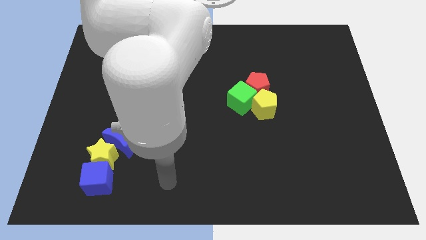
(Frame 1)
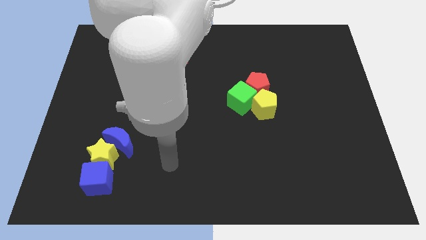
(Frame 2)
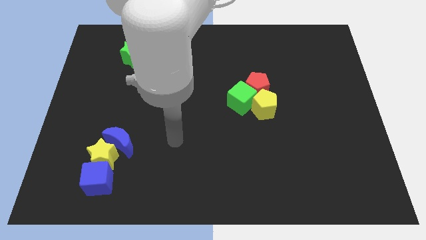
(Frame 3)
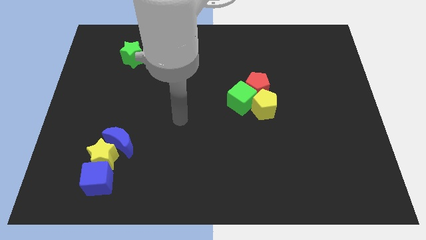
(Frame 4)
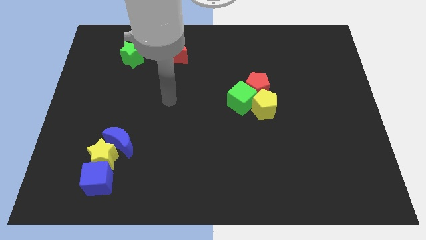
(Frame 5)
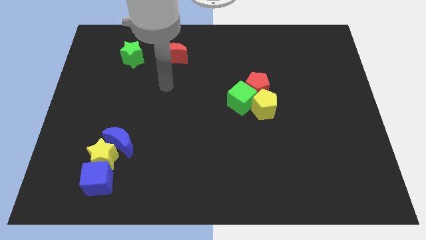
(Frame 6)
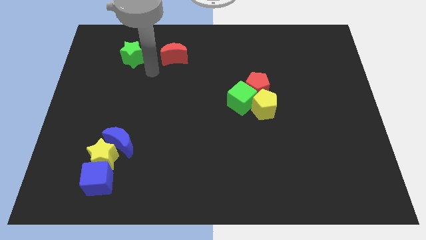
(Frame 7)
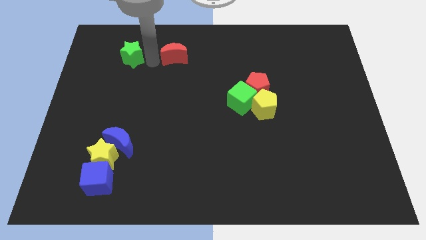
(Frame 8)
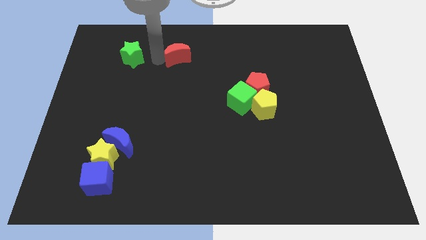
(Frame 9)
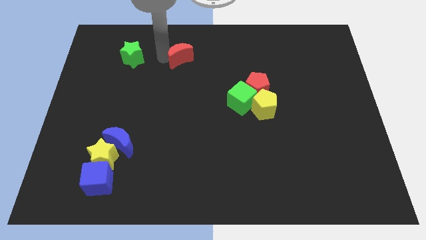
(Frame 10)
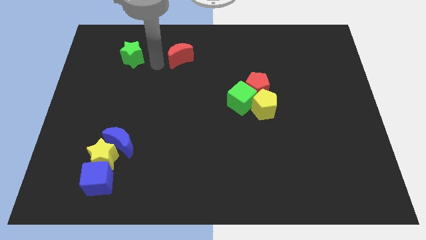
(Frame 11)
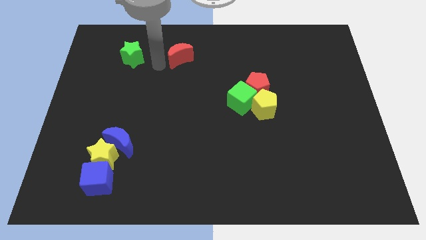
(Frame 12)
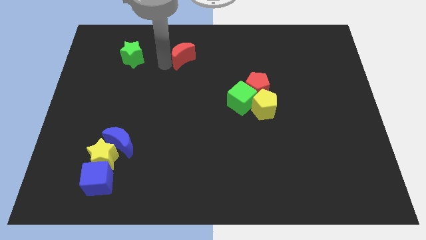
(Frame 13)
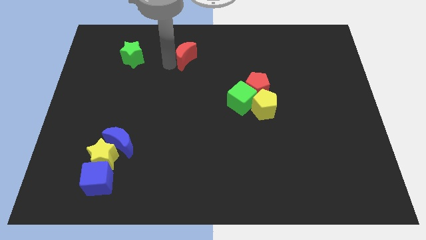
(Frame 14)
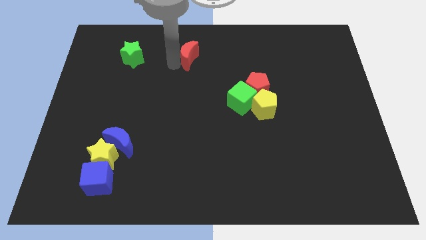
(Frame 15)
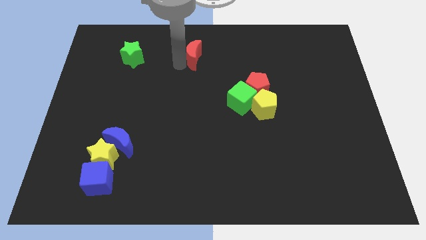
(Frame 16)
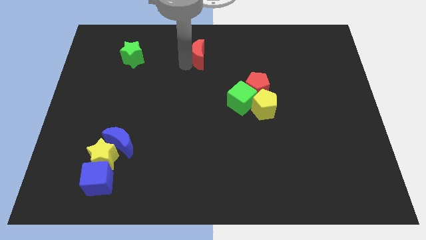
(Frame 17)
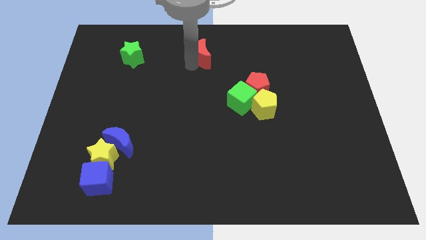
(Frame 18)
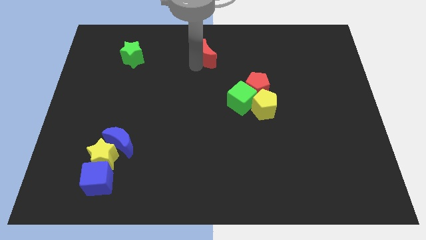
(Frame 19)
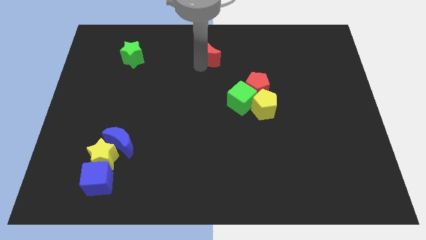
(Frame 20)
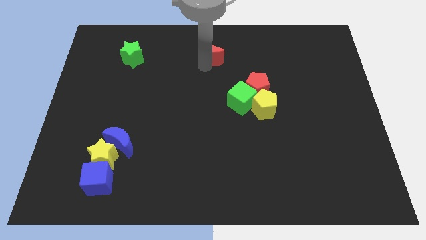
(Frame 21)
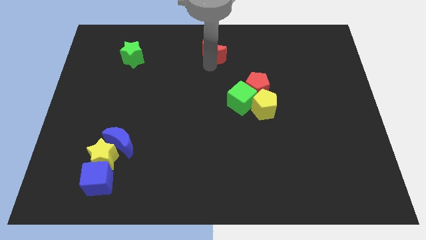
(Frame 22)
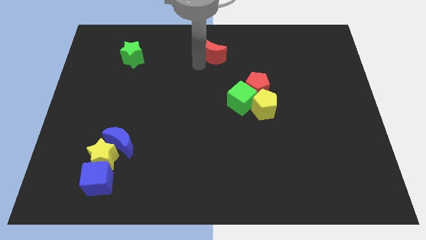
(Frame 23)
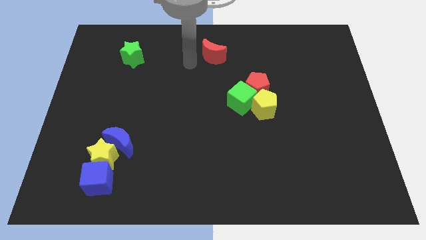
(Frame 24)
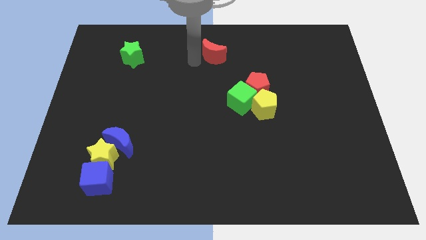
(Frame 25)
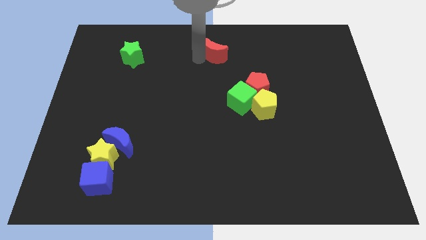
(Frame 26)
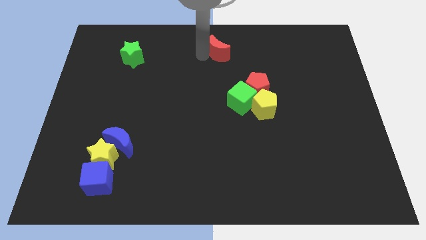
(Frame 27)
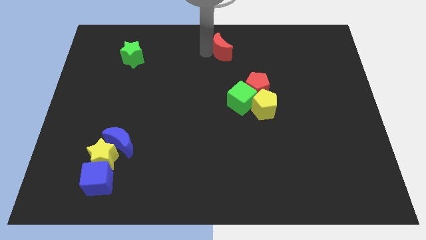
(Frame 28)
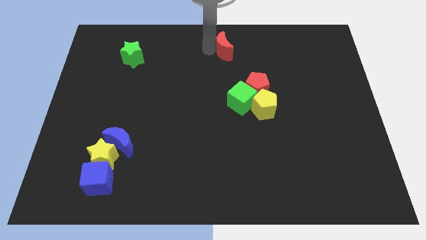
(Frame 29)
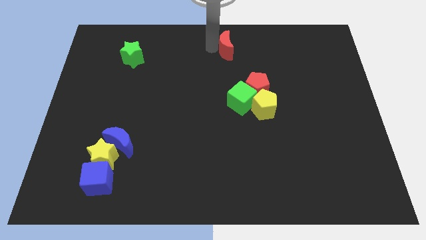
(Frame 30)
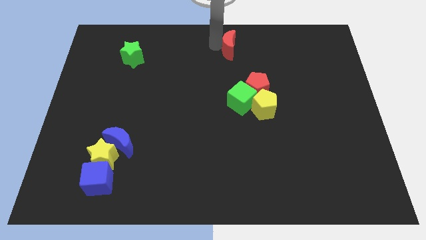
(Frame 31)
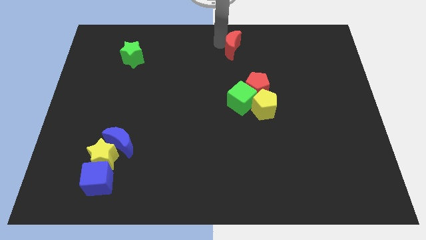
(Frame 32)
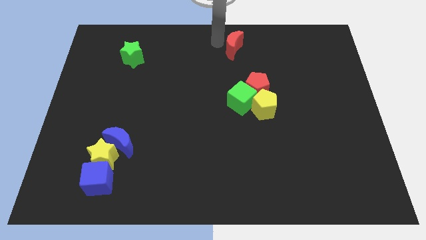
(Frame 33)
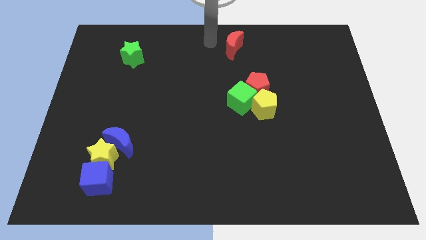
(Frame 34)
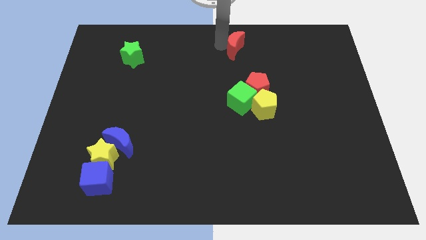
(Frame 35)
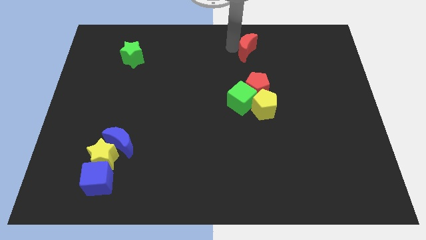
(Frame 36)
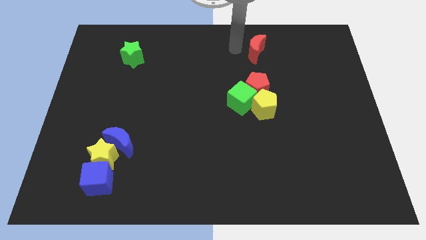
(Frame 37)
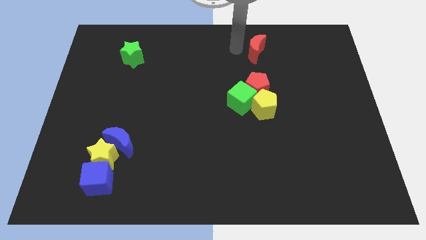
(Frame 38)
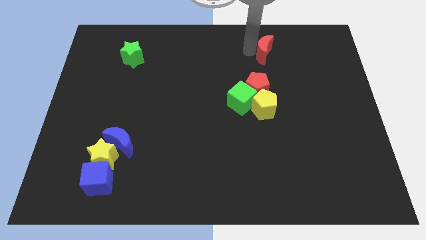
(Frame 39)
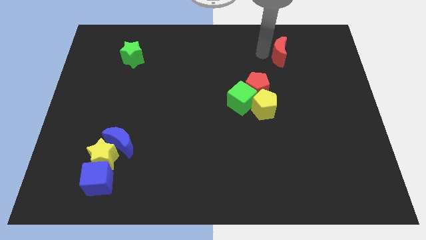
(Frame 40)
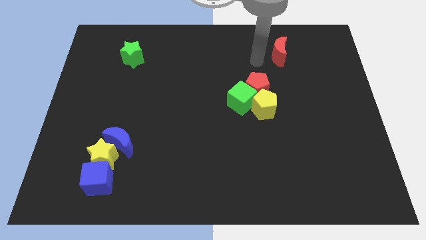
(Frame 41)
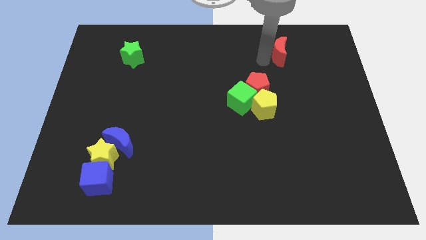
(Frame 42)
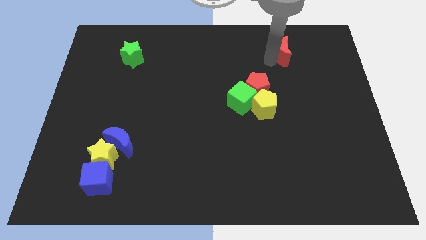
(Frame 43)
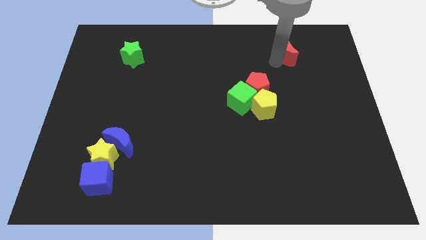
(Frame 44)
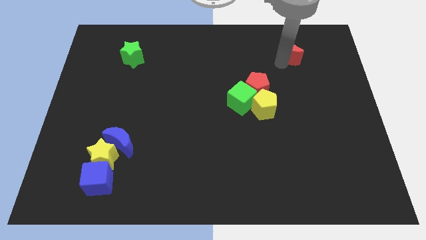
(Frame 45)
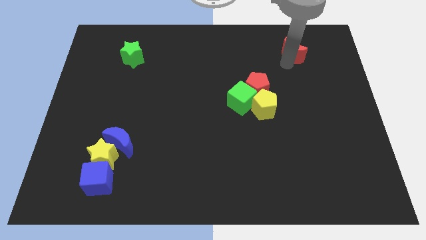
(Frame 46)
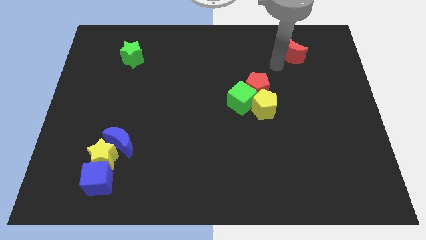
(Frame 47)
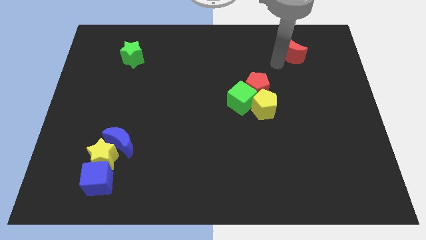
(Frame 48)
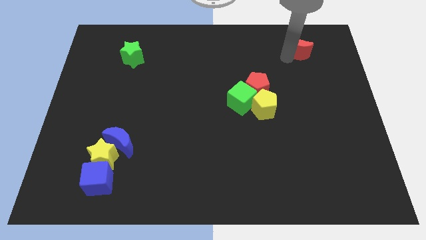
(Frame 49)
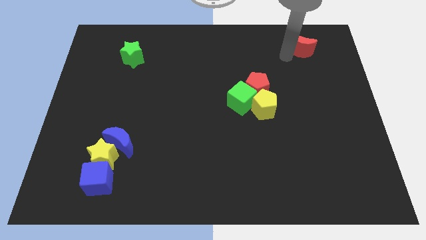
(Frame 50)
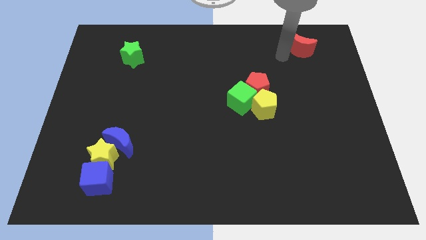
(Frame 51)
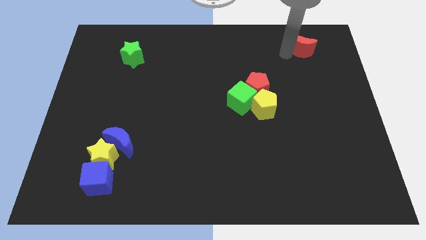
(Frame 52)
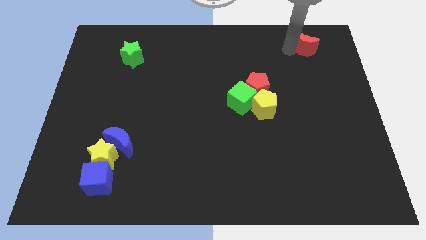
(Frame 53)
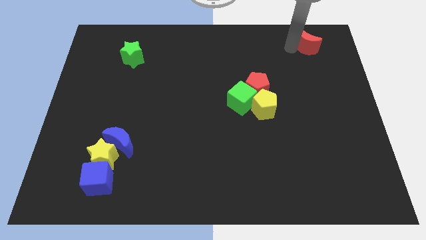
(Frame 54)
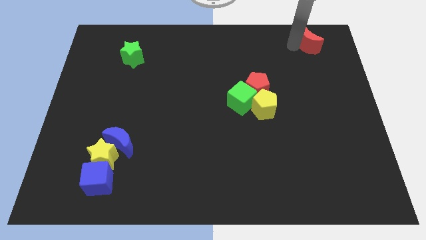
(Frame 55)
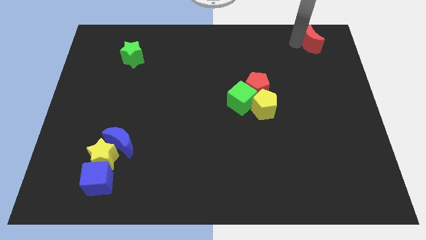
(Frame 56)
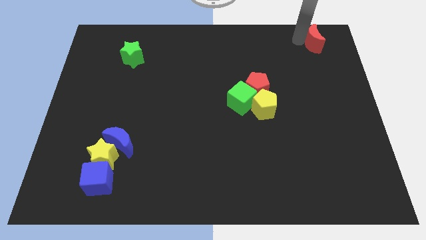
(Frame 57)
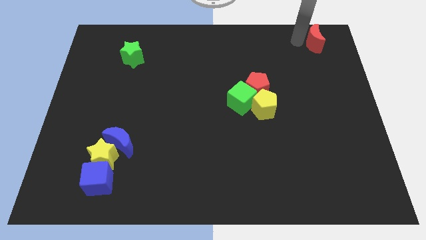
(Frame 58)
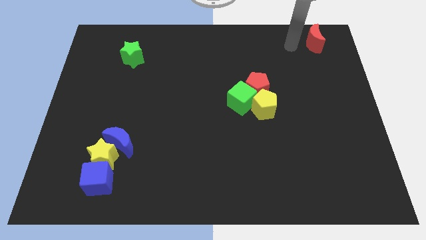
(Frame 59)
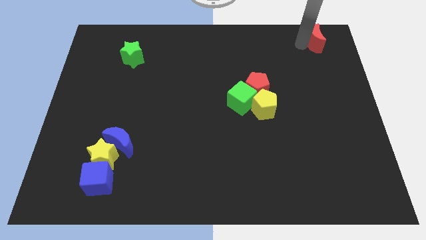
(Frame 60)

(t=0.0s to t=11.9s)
slide the red moon to the upper right corner
